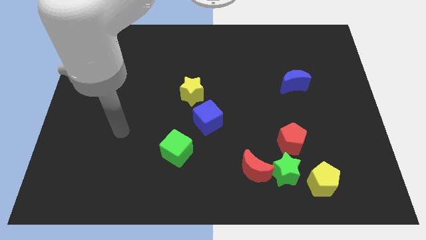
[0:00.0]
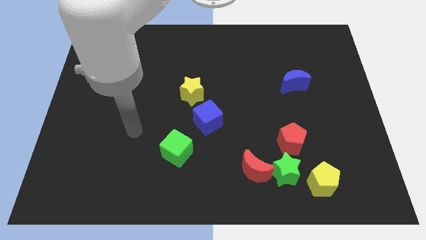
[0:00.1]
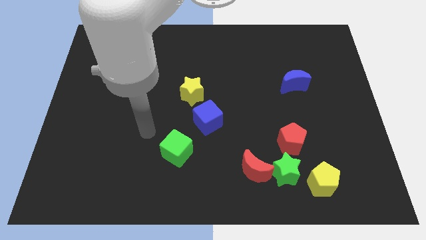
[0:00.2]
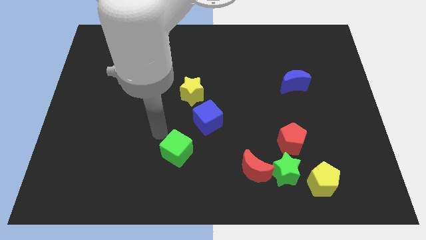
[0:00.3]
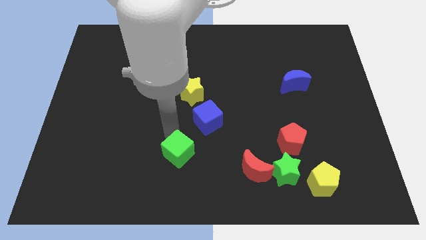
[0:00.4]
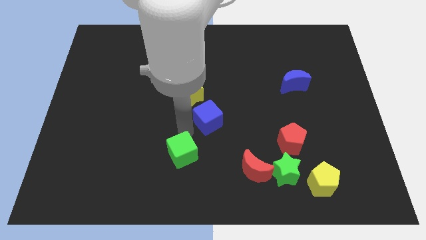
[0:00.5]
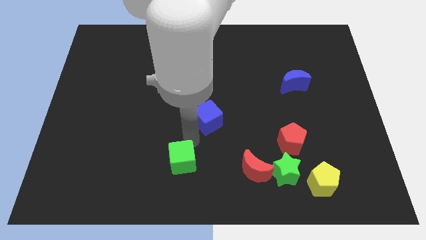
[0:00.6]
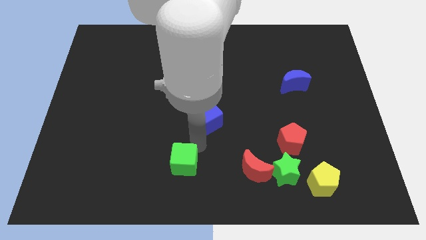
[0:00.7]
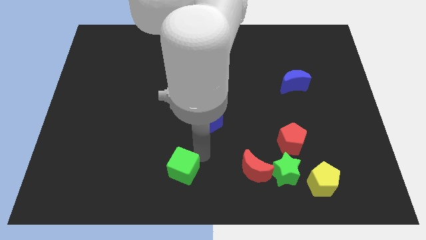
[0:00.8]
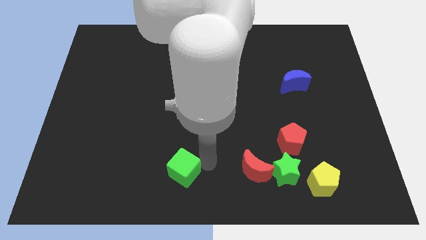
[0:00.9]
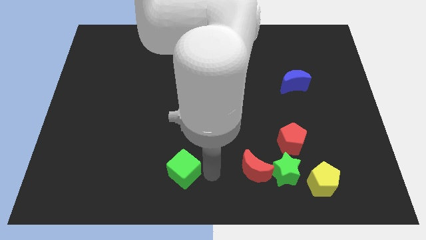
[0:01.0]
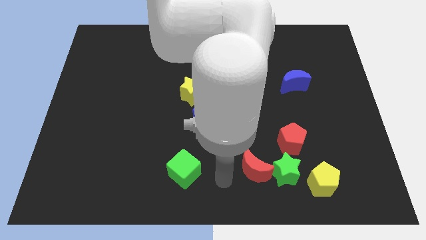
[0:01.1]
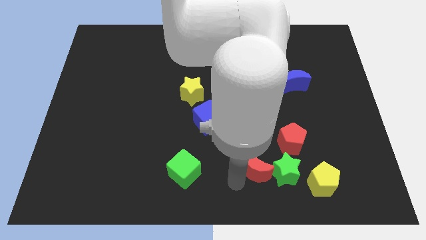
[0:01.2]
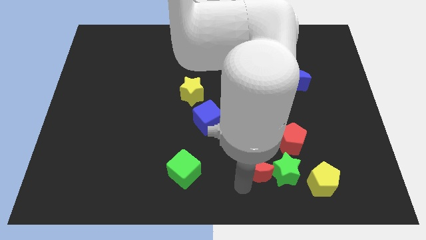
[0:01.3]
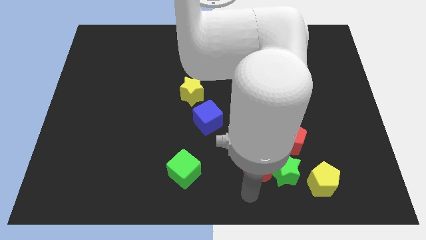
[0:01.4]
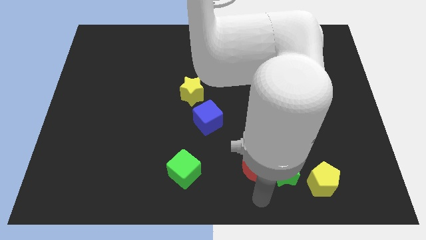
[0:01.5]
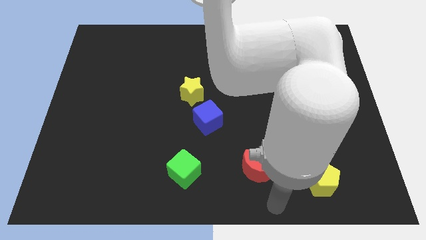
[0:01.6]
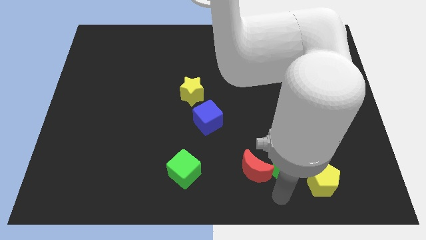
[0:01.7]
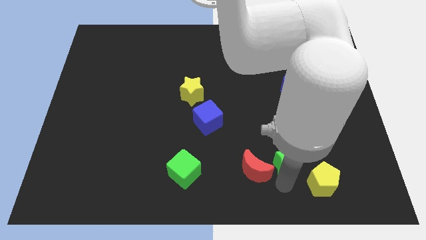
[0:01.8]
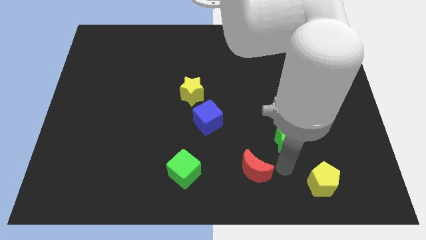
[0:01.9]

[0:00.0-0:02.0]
move the red moon away from the green star

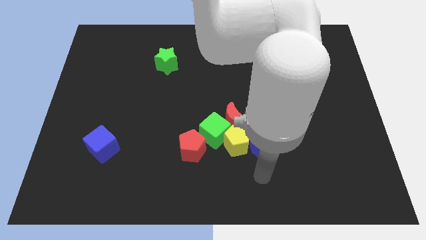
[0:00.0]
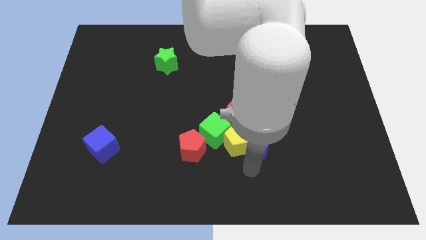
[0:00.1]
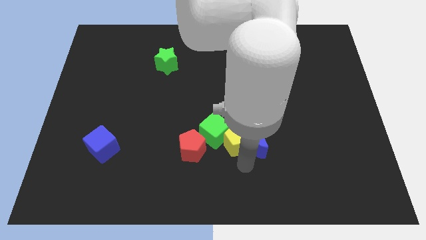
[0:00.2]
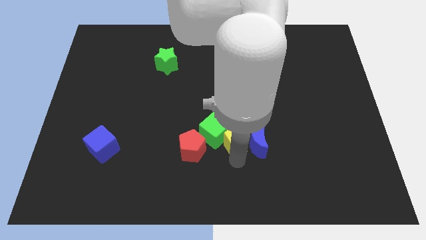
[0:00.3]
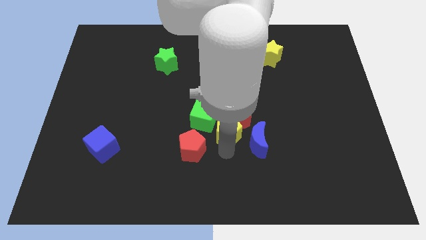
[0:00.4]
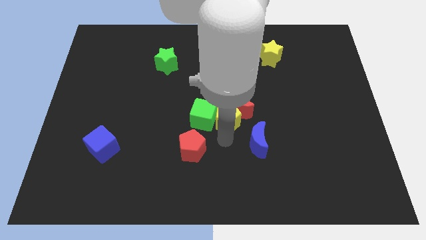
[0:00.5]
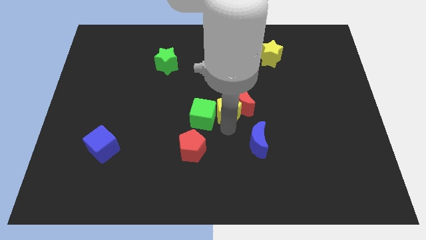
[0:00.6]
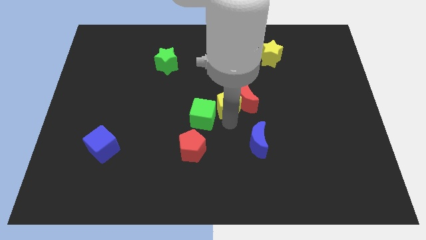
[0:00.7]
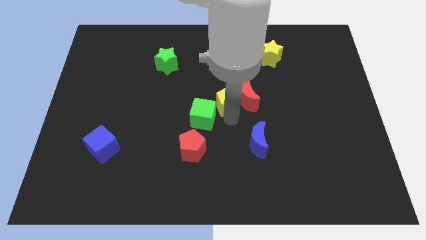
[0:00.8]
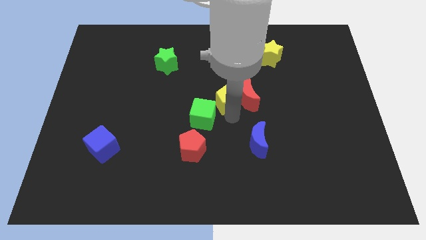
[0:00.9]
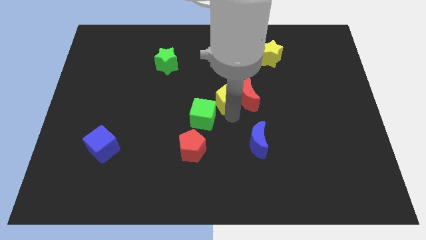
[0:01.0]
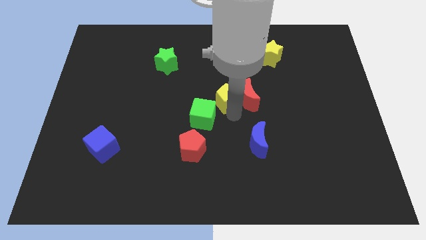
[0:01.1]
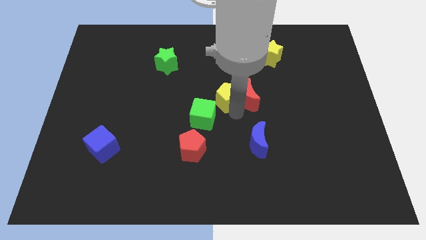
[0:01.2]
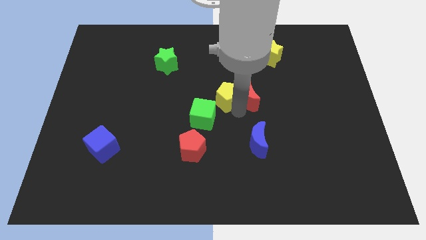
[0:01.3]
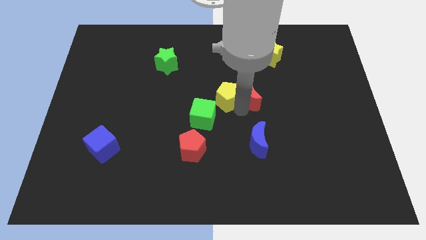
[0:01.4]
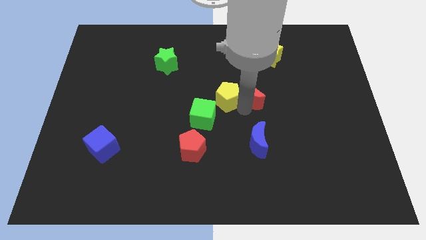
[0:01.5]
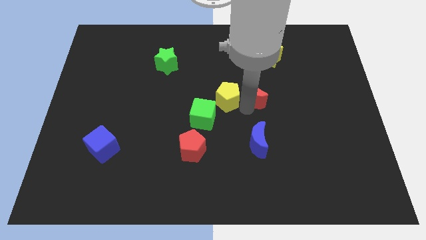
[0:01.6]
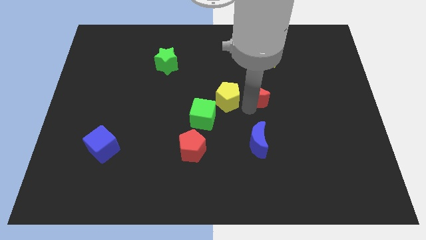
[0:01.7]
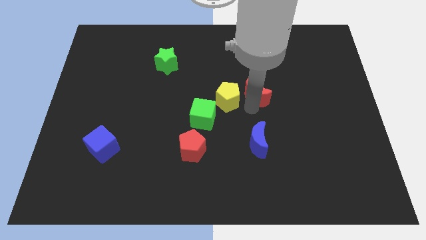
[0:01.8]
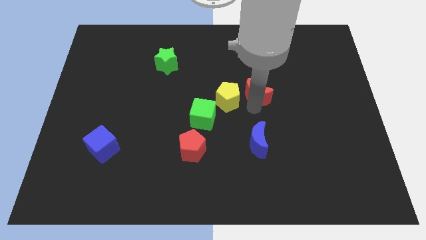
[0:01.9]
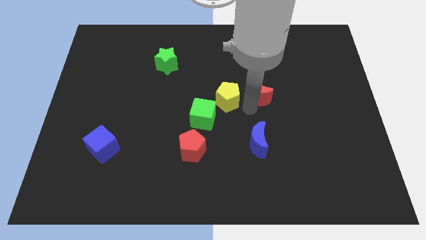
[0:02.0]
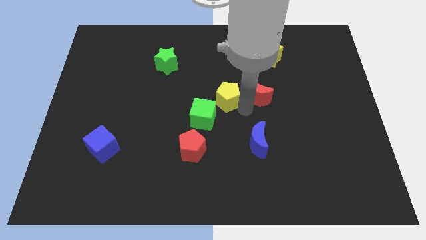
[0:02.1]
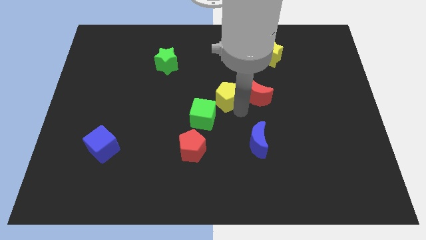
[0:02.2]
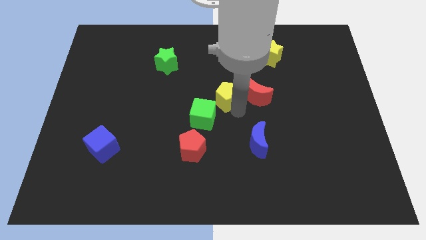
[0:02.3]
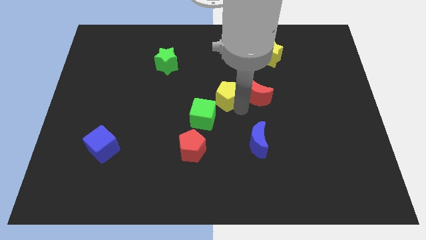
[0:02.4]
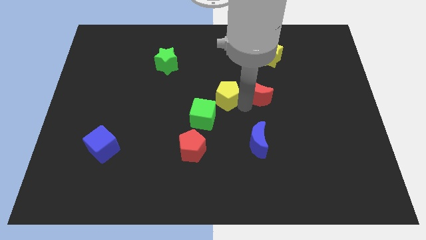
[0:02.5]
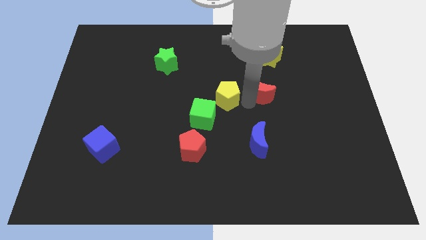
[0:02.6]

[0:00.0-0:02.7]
pull the red moon apart from the yellow pentagon, green cube, and blue moon

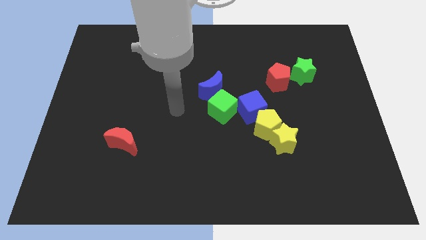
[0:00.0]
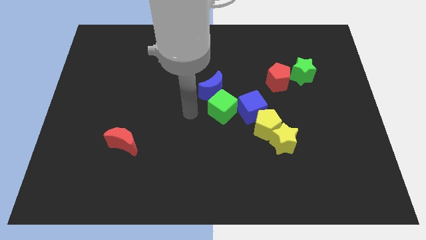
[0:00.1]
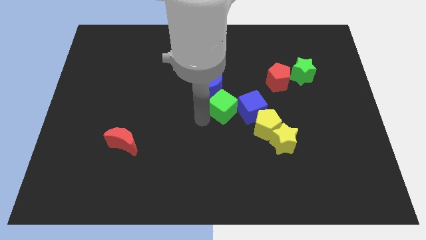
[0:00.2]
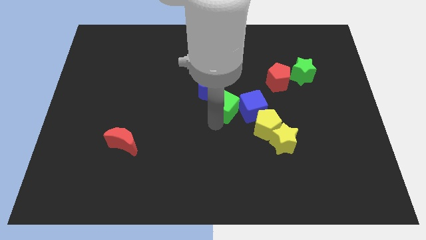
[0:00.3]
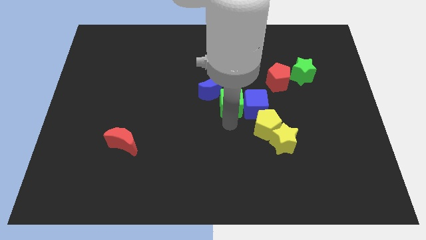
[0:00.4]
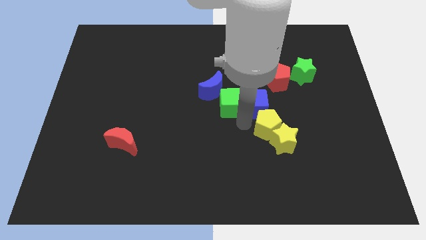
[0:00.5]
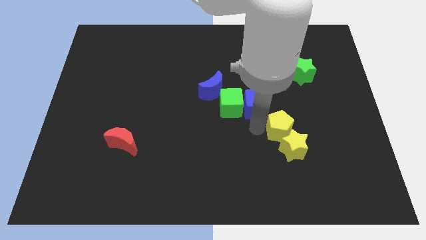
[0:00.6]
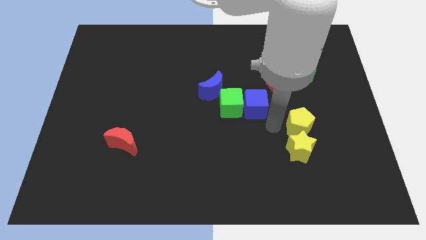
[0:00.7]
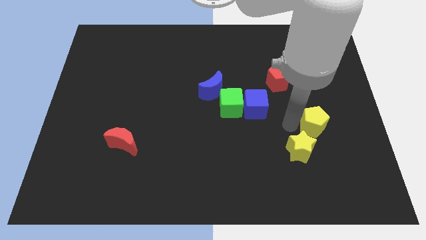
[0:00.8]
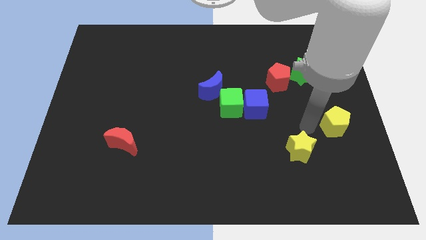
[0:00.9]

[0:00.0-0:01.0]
separate the yellow star from the yellow pentagon

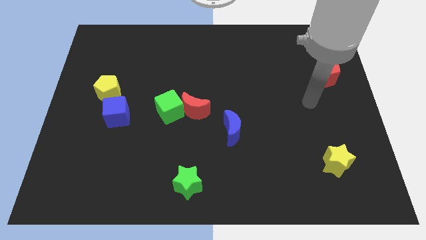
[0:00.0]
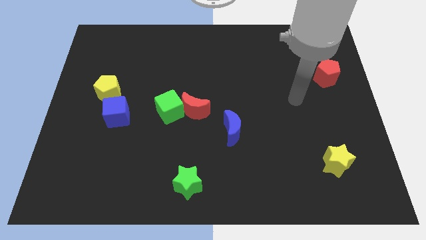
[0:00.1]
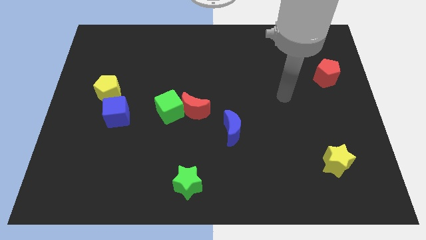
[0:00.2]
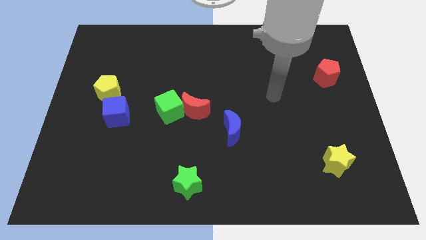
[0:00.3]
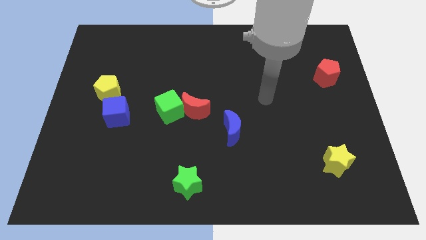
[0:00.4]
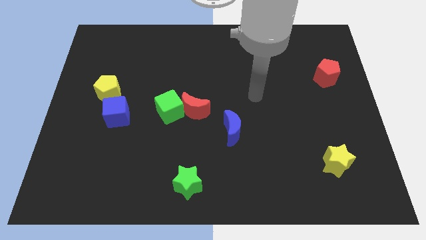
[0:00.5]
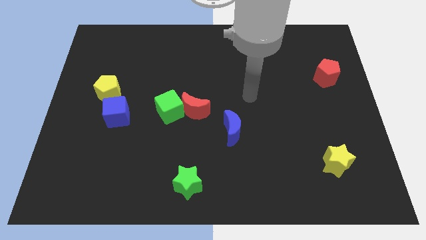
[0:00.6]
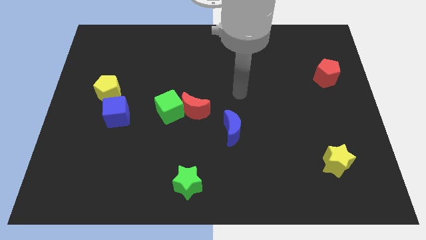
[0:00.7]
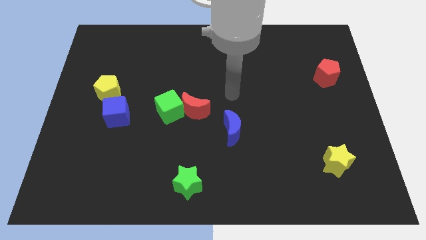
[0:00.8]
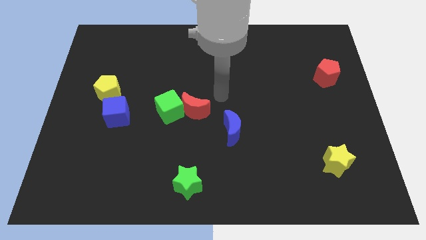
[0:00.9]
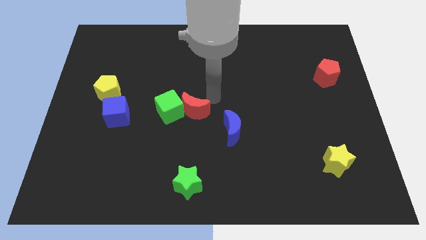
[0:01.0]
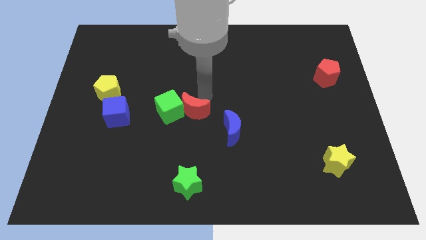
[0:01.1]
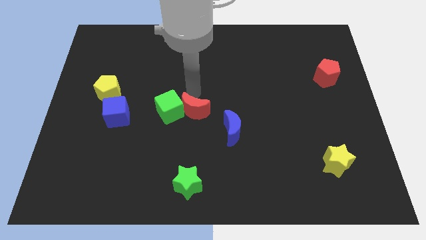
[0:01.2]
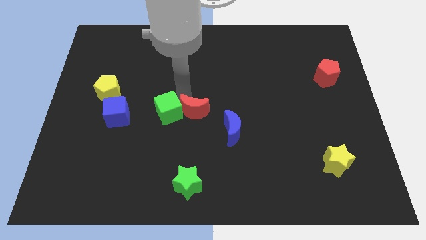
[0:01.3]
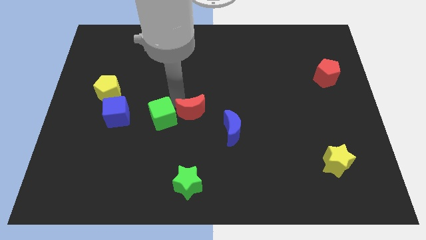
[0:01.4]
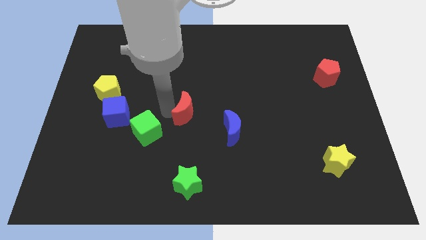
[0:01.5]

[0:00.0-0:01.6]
move the red moon away from the green cube

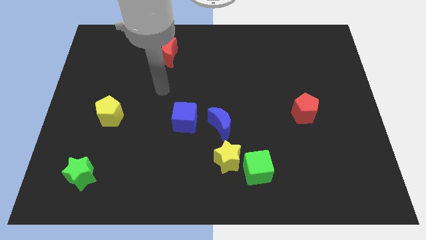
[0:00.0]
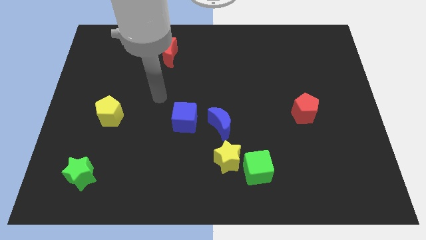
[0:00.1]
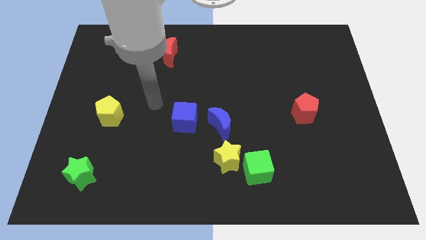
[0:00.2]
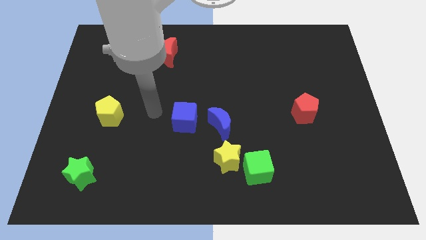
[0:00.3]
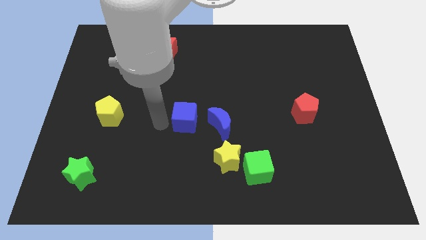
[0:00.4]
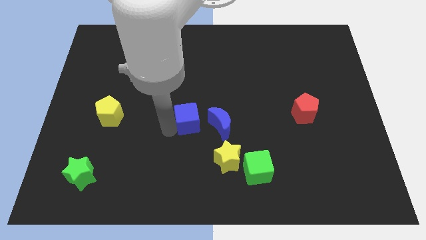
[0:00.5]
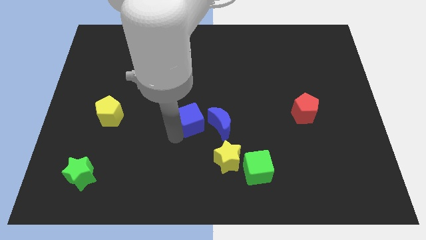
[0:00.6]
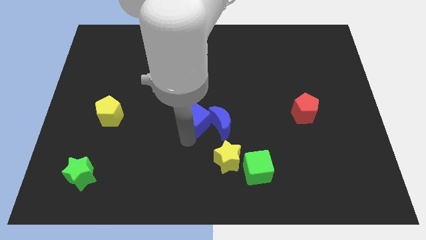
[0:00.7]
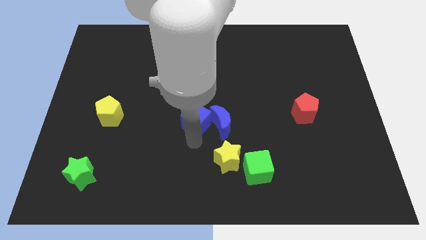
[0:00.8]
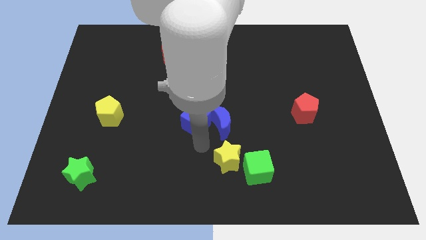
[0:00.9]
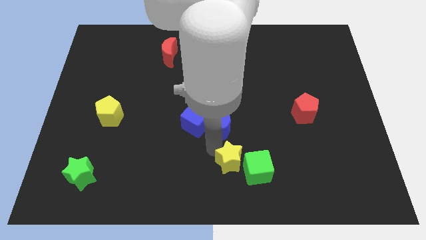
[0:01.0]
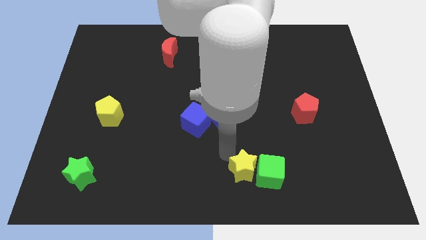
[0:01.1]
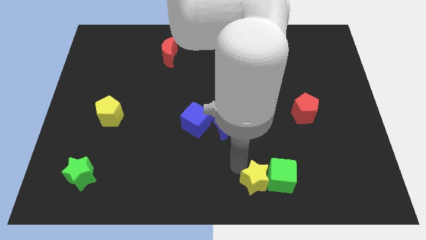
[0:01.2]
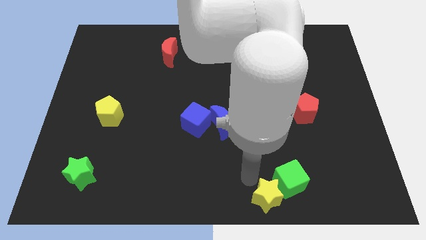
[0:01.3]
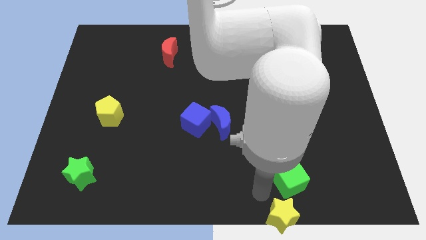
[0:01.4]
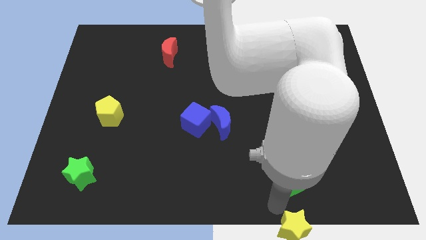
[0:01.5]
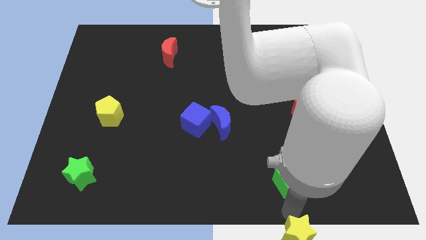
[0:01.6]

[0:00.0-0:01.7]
separate the green cube from the yellow star

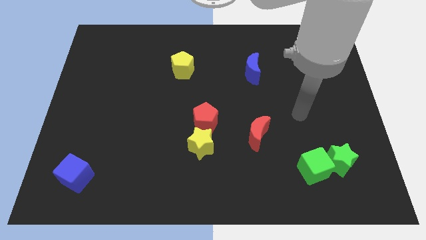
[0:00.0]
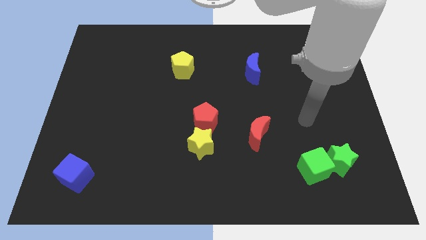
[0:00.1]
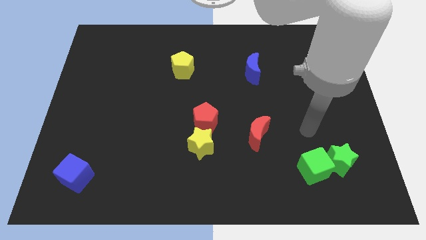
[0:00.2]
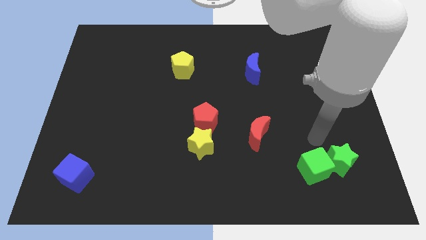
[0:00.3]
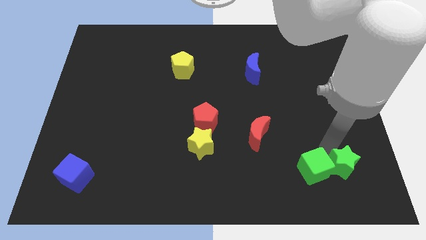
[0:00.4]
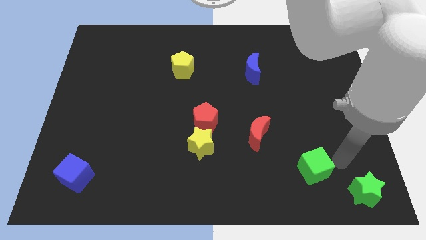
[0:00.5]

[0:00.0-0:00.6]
move the green cube away from the green star
